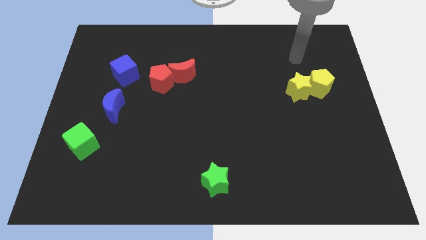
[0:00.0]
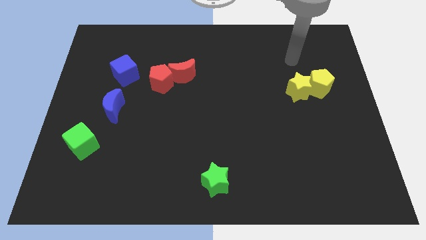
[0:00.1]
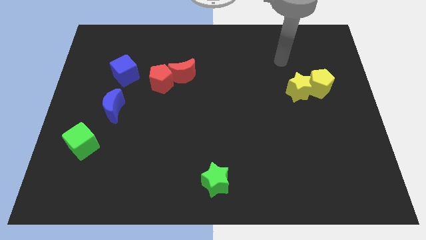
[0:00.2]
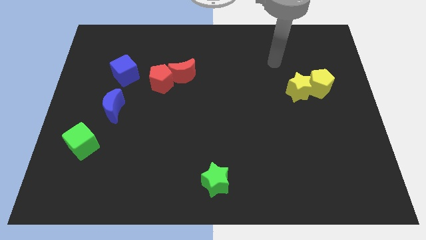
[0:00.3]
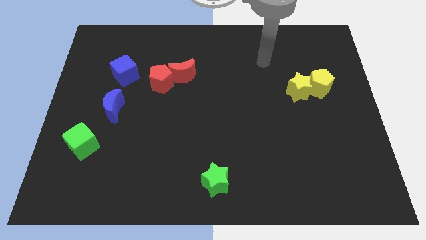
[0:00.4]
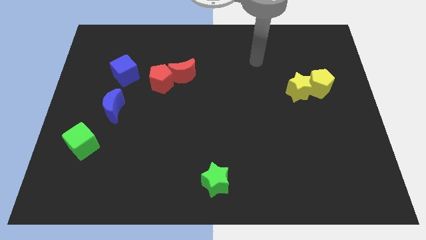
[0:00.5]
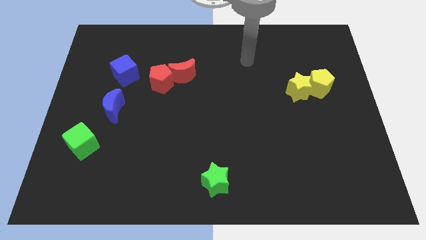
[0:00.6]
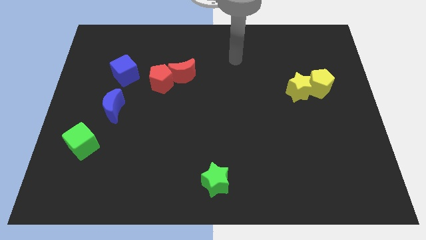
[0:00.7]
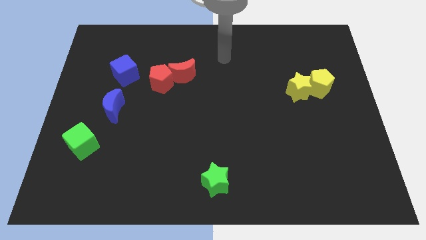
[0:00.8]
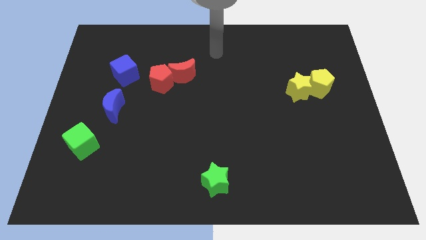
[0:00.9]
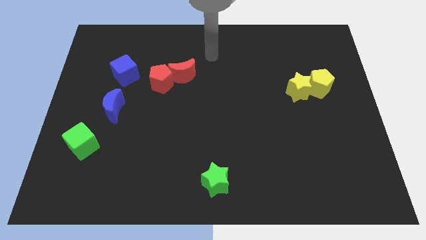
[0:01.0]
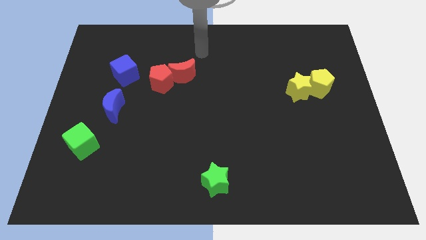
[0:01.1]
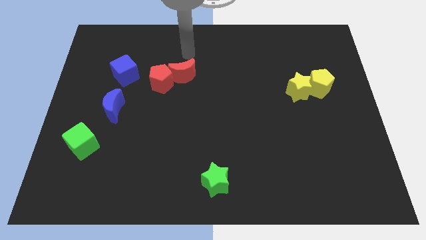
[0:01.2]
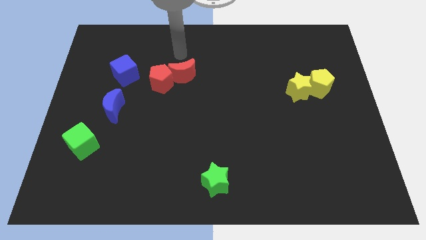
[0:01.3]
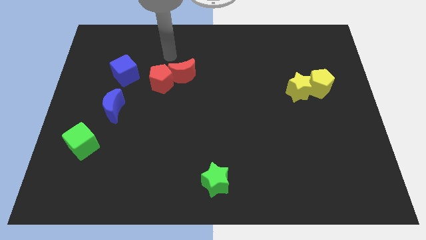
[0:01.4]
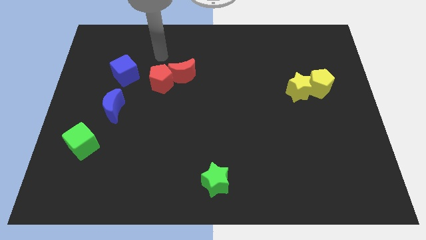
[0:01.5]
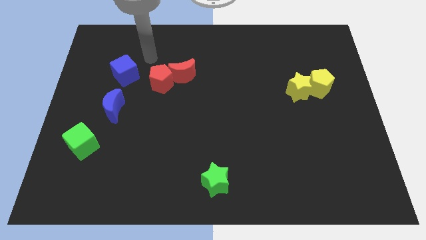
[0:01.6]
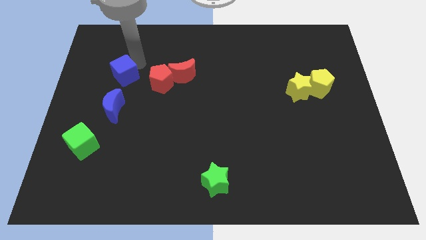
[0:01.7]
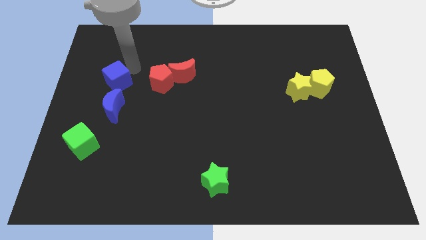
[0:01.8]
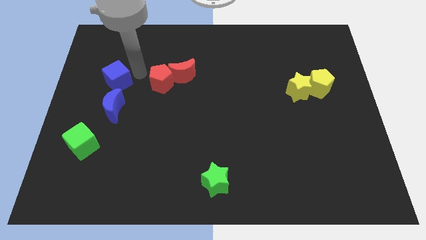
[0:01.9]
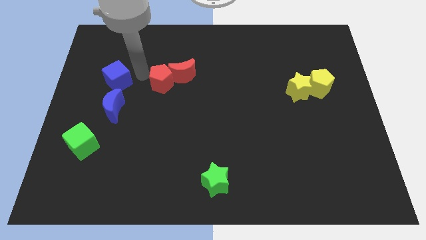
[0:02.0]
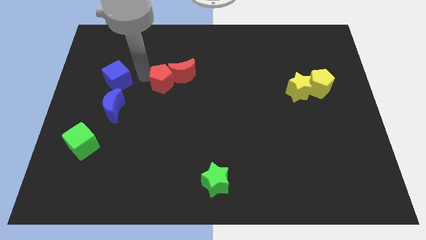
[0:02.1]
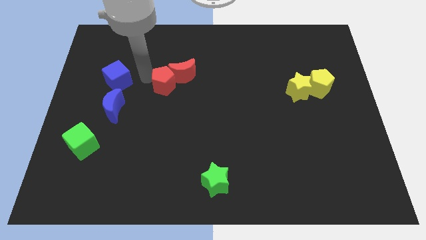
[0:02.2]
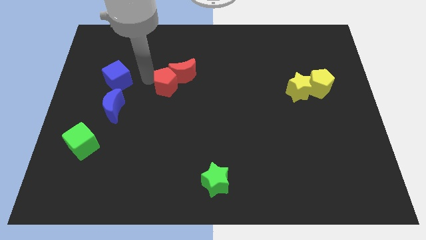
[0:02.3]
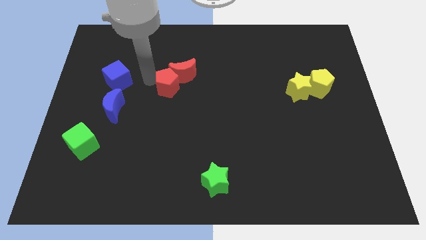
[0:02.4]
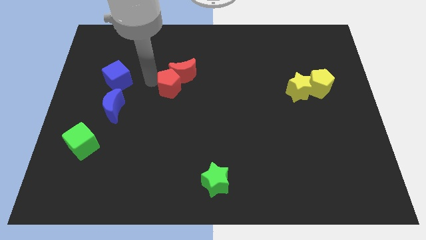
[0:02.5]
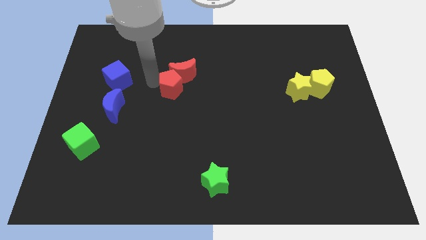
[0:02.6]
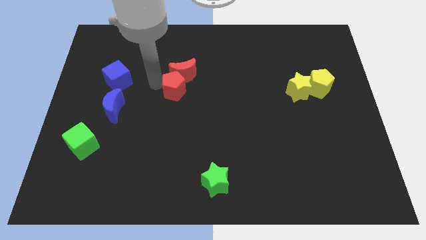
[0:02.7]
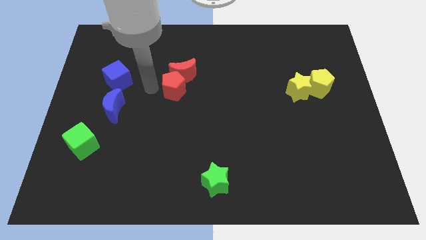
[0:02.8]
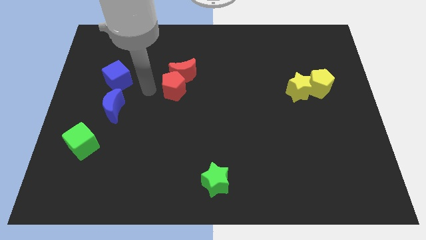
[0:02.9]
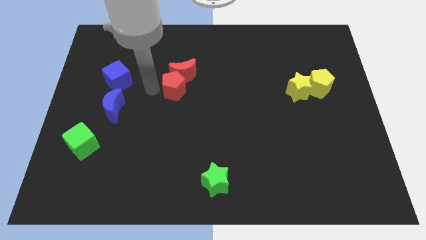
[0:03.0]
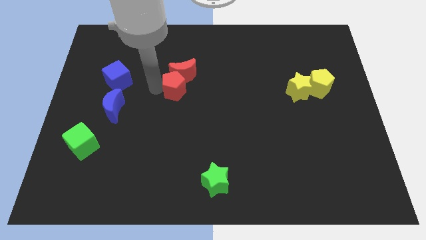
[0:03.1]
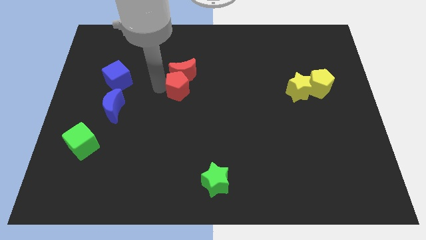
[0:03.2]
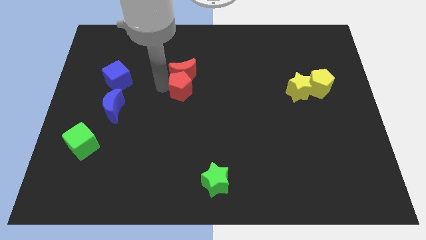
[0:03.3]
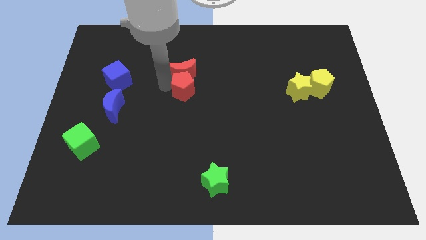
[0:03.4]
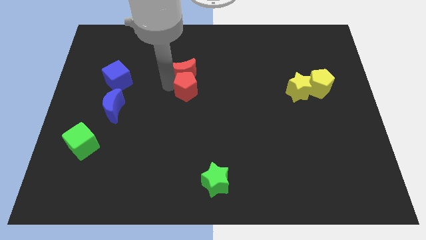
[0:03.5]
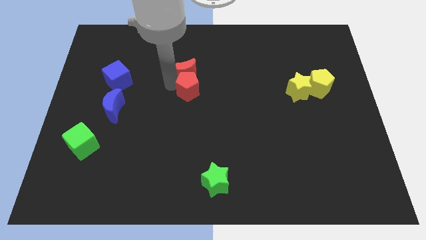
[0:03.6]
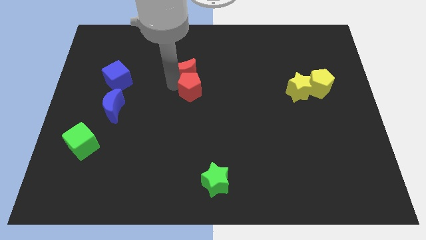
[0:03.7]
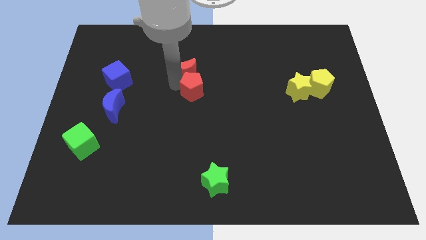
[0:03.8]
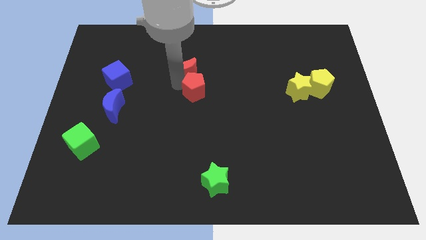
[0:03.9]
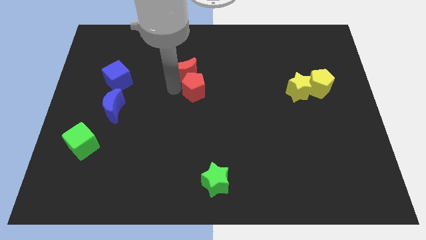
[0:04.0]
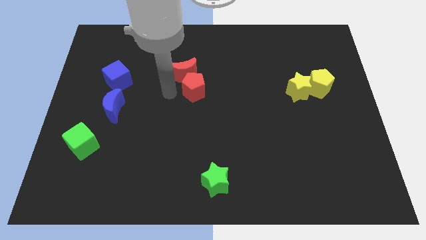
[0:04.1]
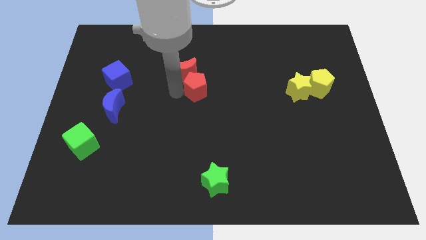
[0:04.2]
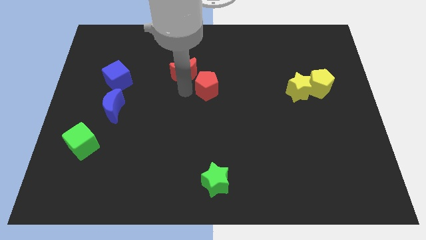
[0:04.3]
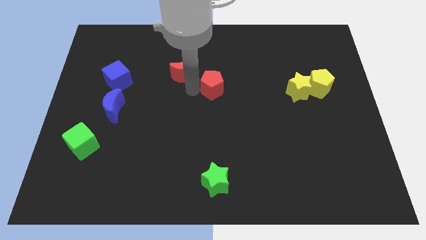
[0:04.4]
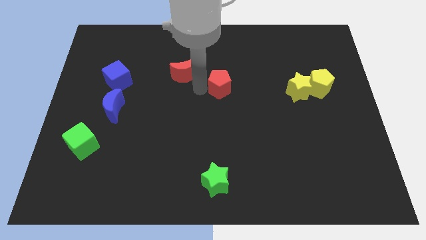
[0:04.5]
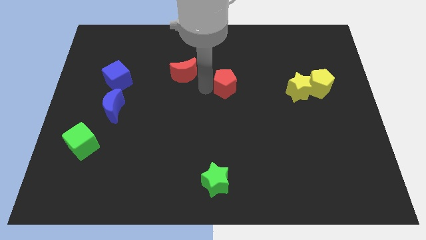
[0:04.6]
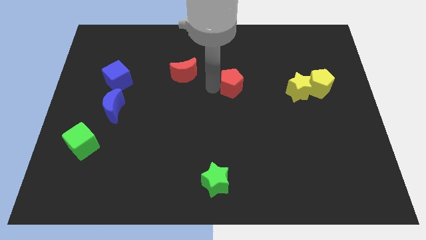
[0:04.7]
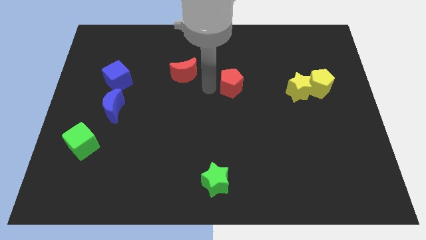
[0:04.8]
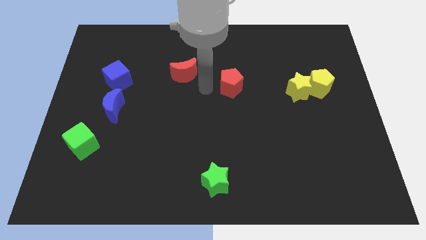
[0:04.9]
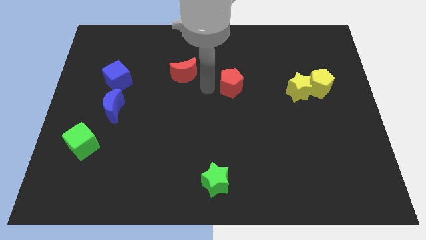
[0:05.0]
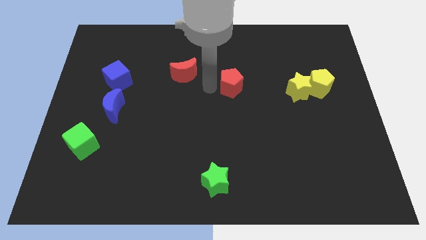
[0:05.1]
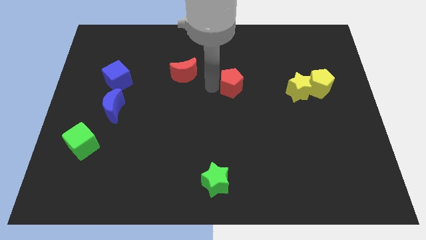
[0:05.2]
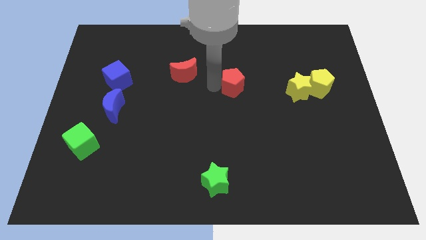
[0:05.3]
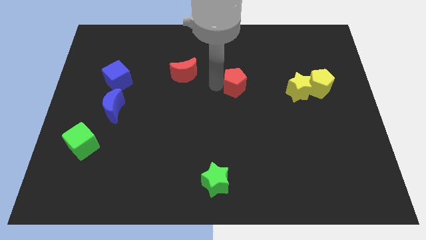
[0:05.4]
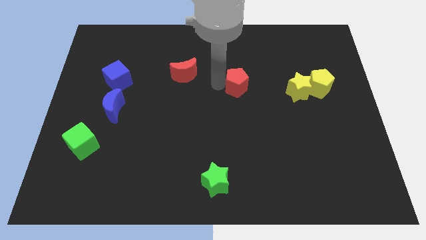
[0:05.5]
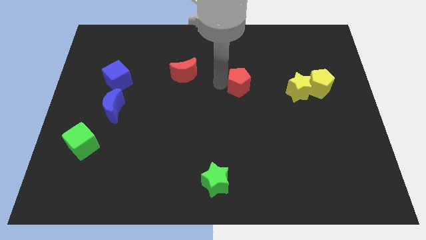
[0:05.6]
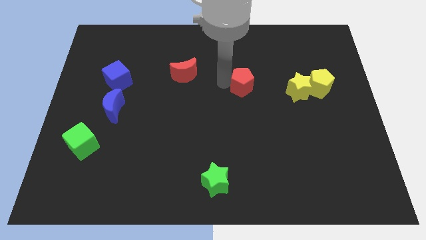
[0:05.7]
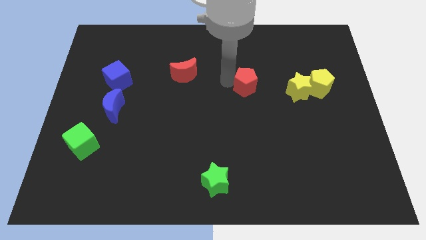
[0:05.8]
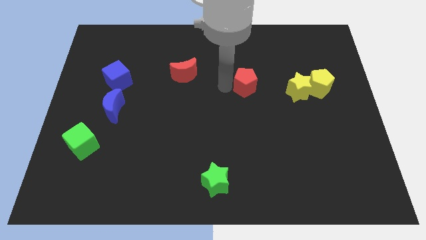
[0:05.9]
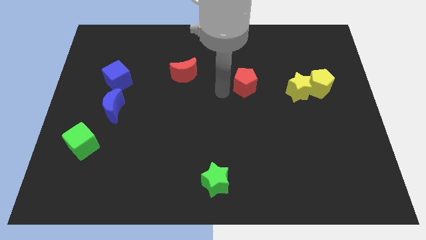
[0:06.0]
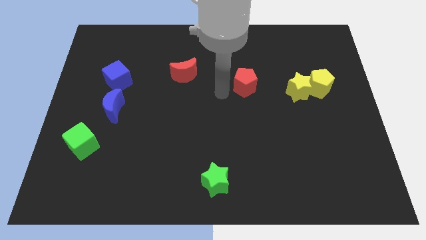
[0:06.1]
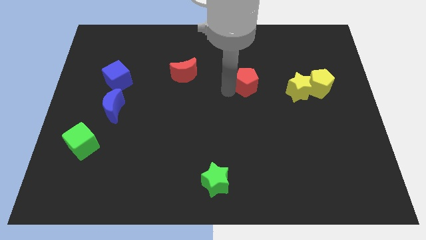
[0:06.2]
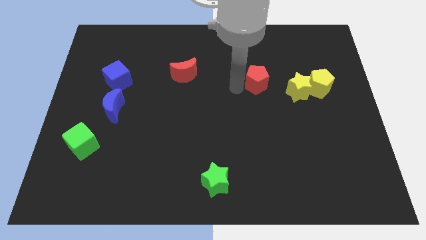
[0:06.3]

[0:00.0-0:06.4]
push the red pentagon to the top left of the yellow star
